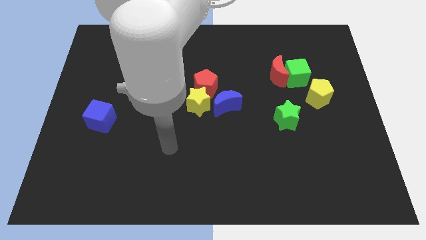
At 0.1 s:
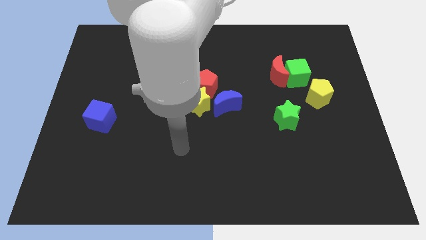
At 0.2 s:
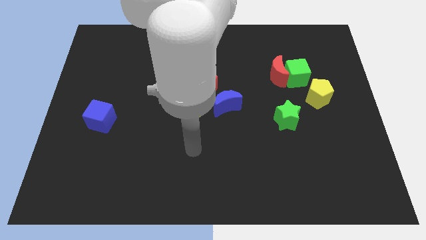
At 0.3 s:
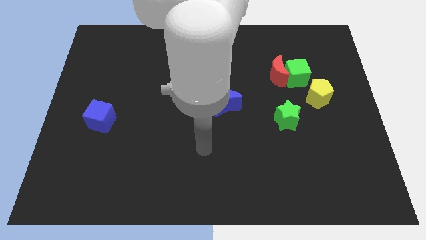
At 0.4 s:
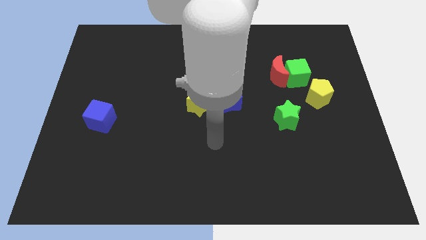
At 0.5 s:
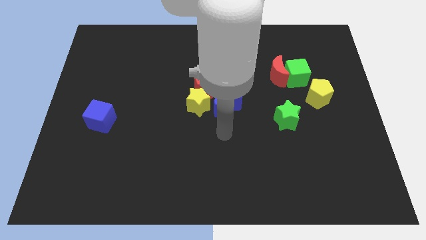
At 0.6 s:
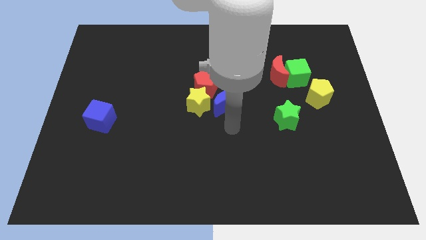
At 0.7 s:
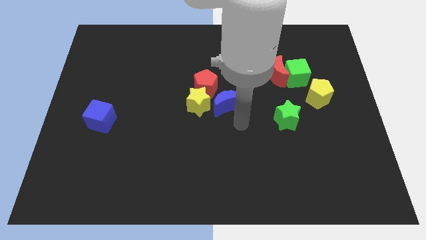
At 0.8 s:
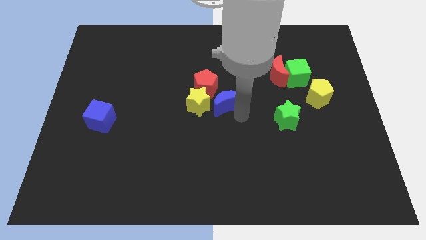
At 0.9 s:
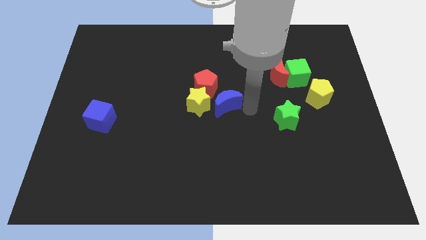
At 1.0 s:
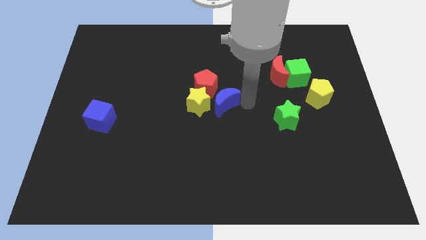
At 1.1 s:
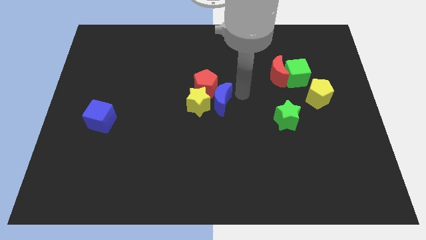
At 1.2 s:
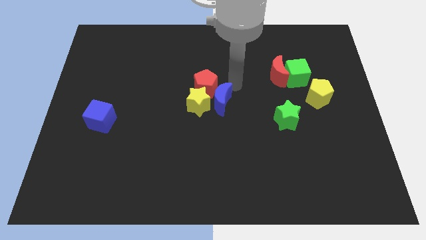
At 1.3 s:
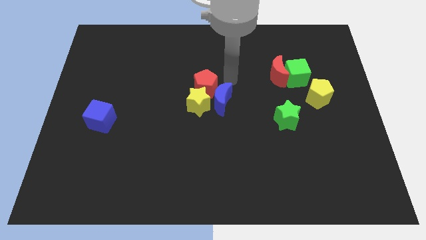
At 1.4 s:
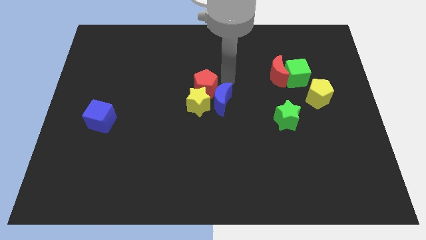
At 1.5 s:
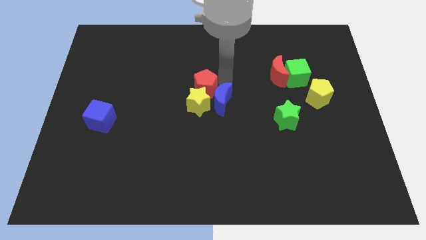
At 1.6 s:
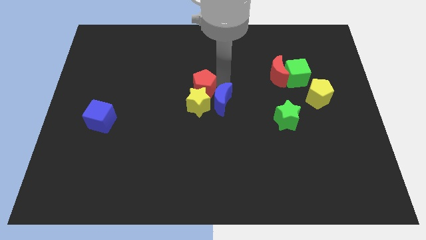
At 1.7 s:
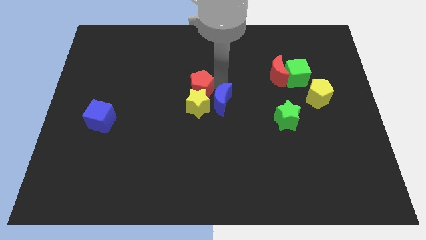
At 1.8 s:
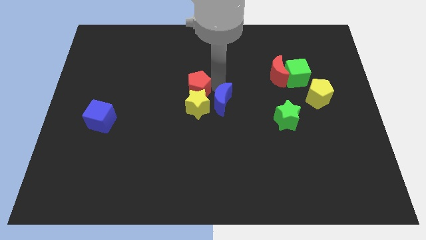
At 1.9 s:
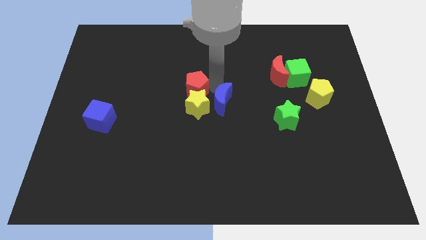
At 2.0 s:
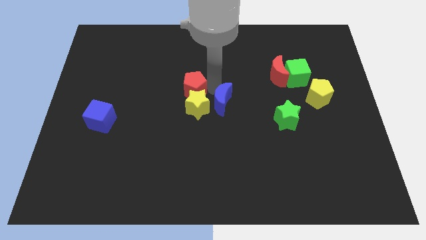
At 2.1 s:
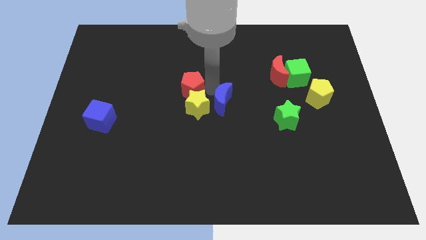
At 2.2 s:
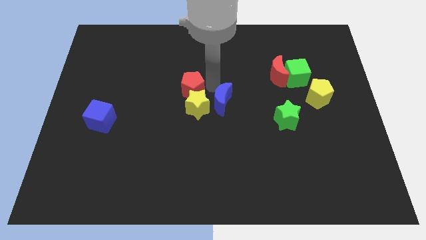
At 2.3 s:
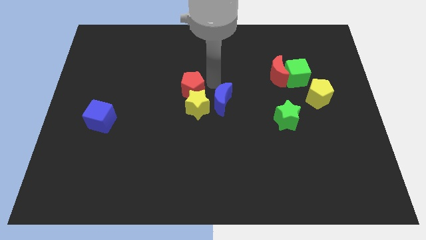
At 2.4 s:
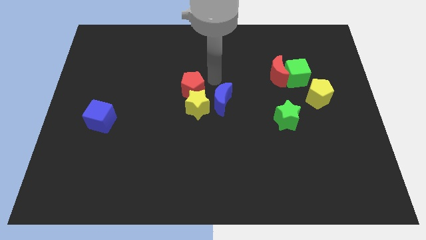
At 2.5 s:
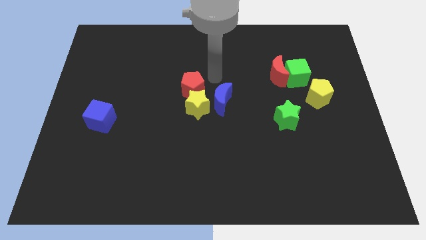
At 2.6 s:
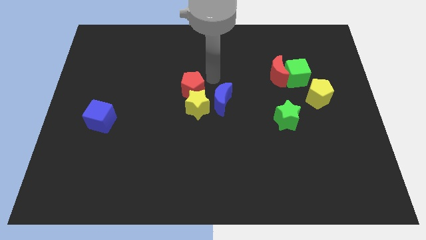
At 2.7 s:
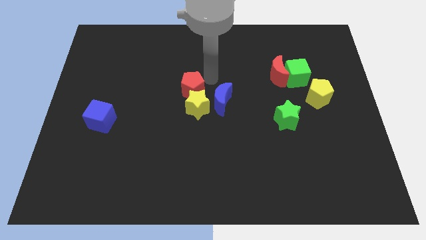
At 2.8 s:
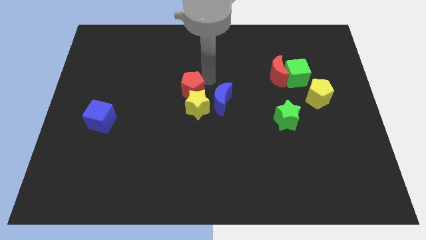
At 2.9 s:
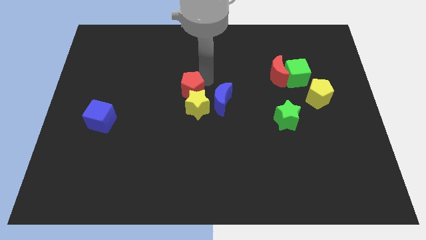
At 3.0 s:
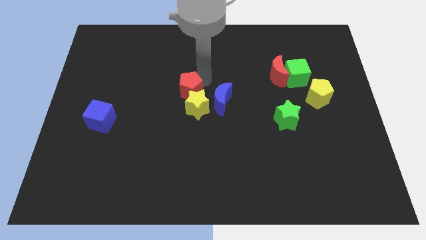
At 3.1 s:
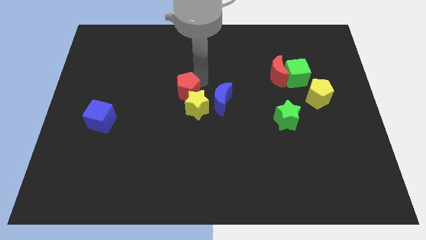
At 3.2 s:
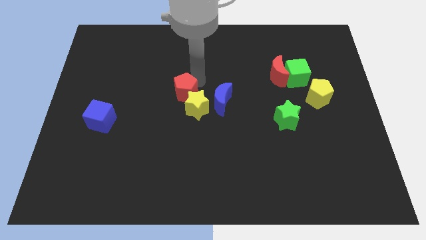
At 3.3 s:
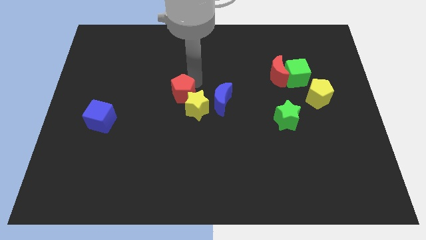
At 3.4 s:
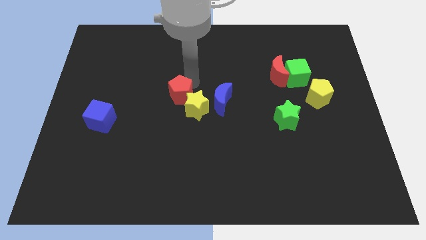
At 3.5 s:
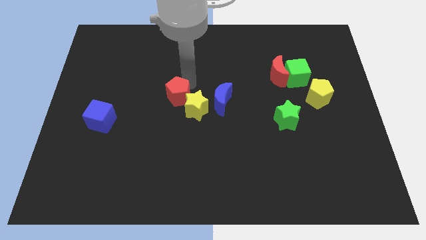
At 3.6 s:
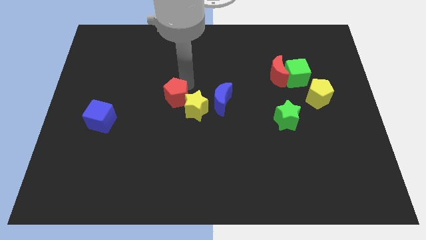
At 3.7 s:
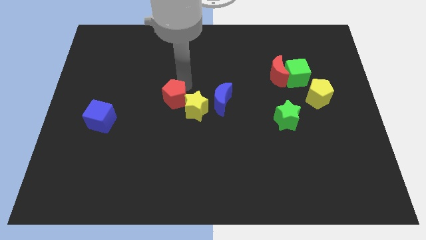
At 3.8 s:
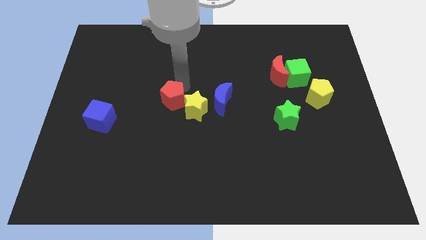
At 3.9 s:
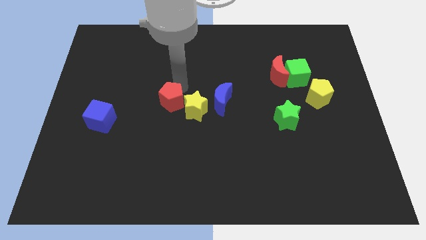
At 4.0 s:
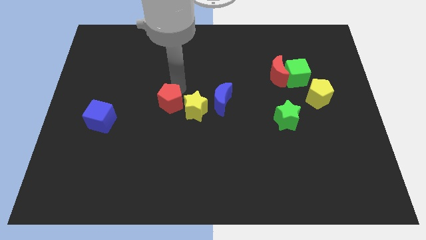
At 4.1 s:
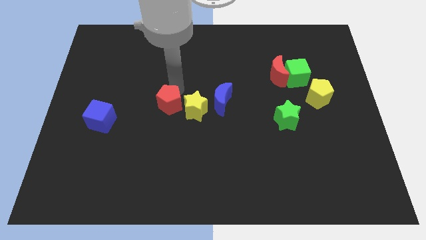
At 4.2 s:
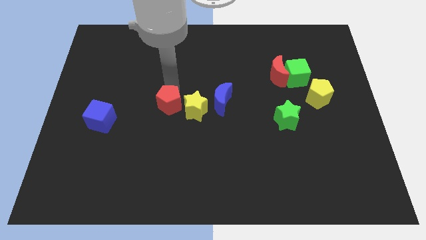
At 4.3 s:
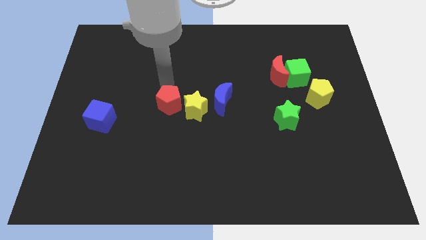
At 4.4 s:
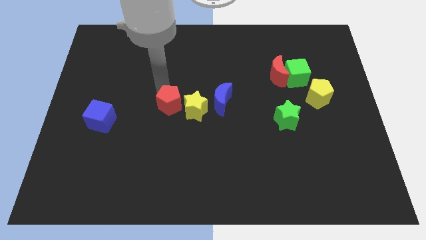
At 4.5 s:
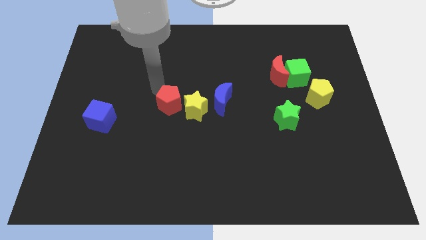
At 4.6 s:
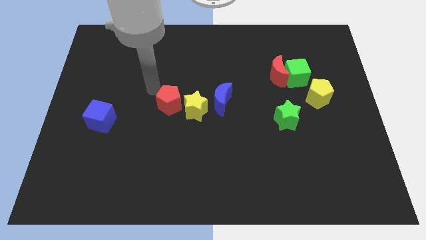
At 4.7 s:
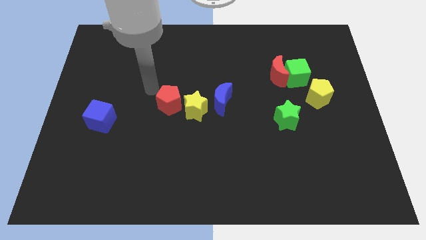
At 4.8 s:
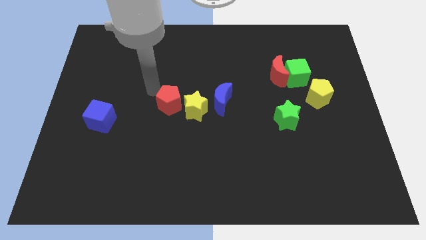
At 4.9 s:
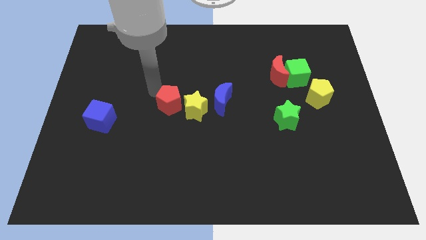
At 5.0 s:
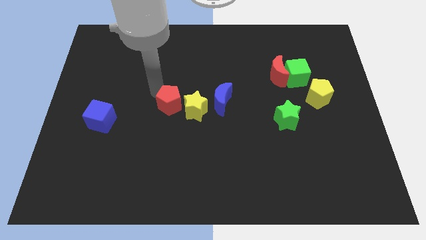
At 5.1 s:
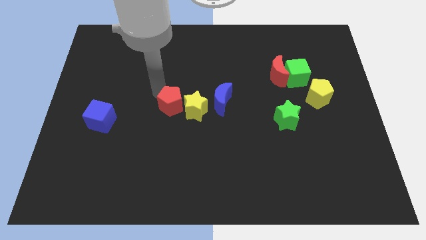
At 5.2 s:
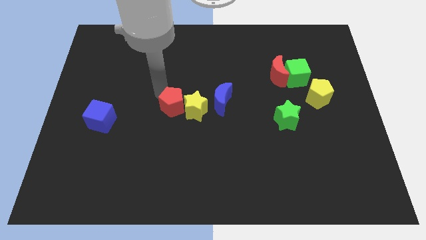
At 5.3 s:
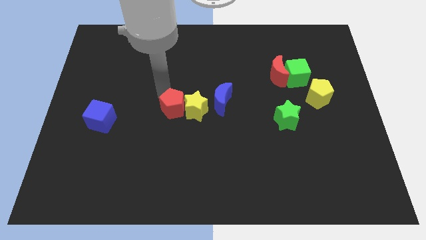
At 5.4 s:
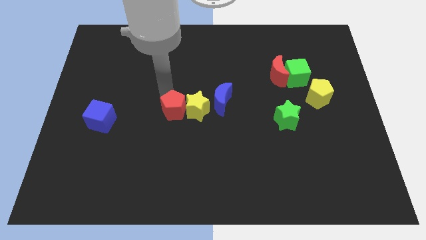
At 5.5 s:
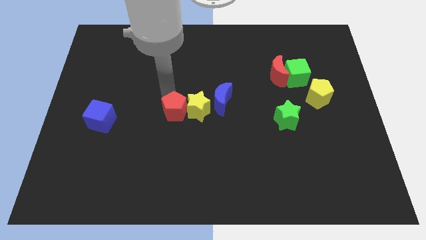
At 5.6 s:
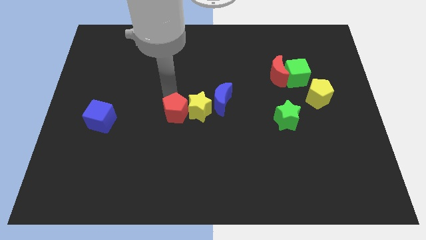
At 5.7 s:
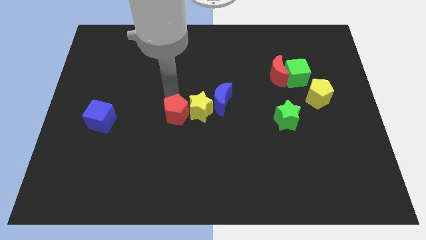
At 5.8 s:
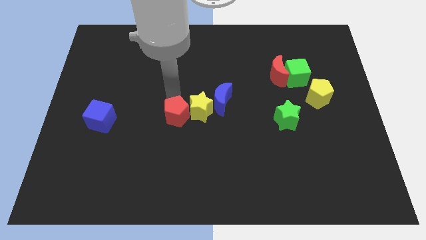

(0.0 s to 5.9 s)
slightly push the red pentagon downwards

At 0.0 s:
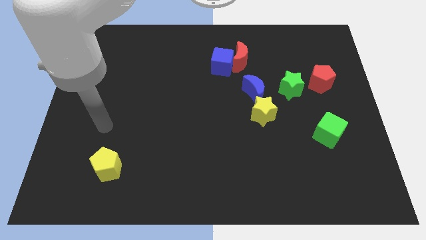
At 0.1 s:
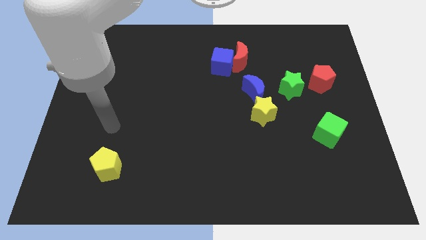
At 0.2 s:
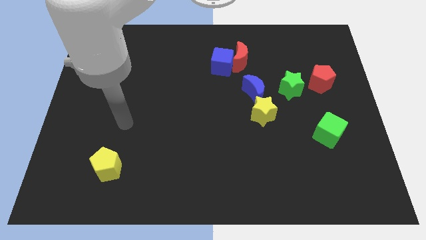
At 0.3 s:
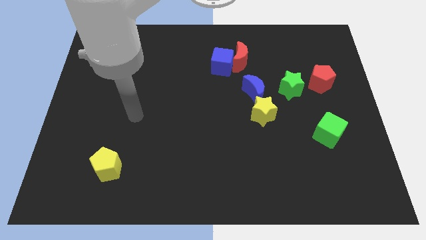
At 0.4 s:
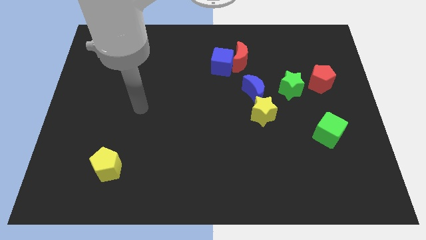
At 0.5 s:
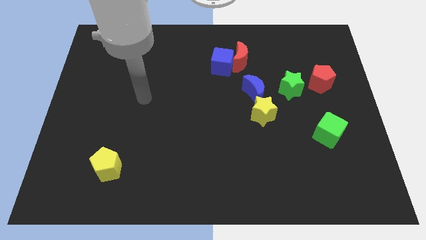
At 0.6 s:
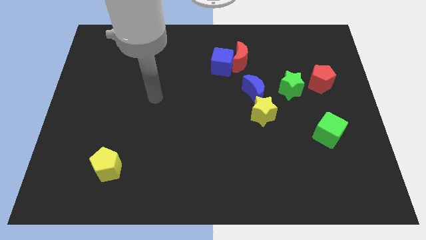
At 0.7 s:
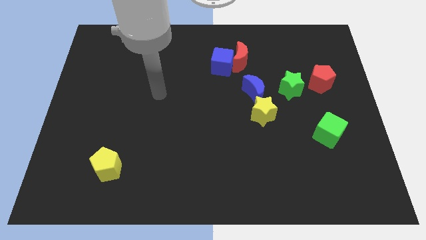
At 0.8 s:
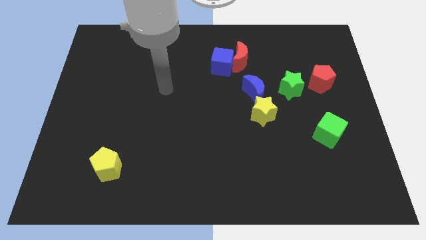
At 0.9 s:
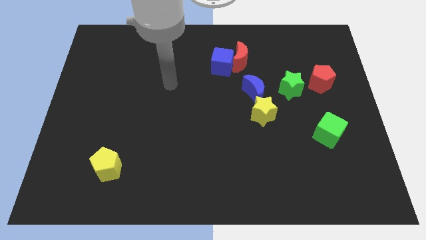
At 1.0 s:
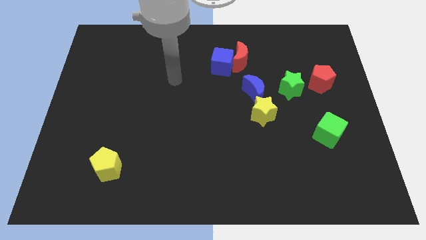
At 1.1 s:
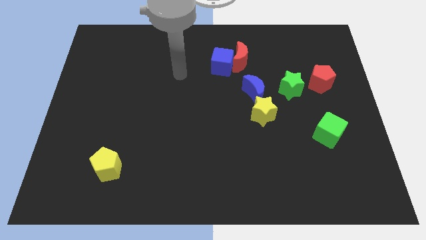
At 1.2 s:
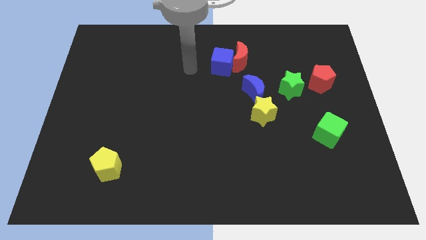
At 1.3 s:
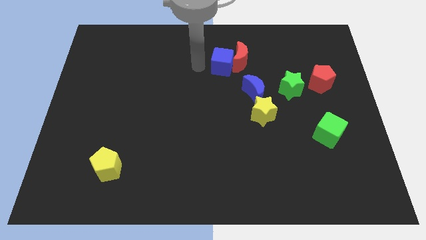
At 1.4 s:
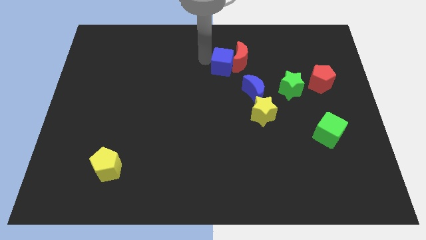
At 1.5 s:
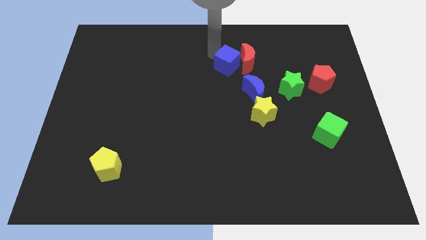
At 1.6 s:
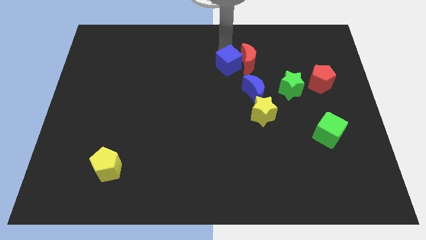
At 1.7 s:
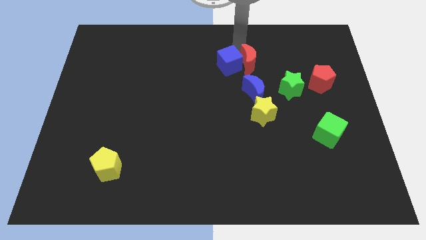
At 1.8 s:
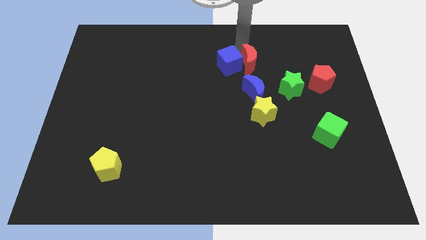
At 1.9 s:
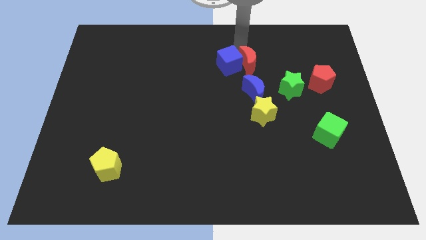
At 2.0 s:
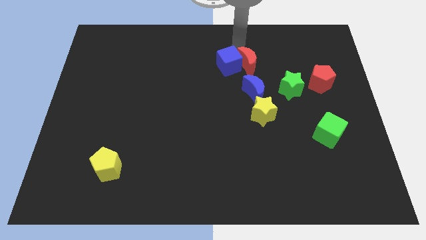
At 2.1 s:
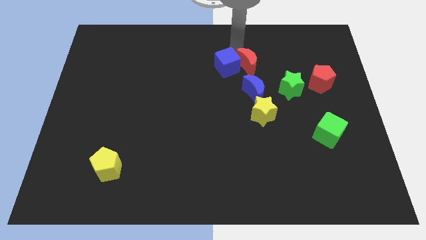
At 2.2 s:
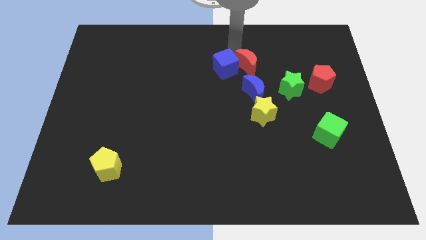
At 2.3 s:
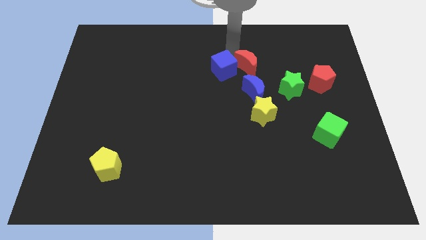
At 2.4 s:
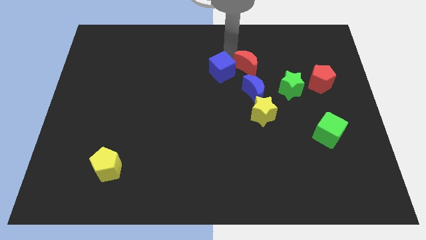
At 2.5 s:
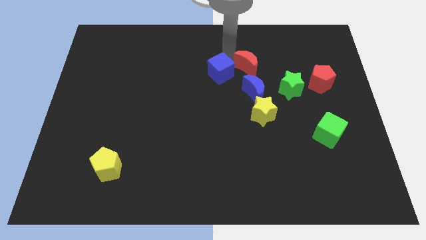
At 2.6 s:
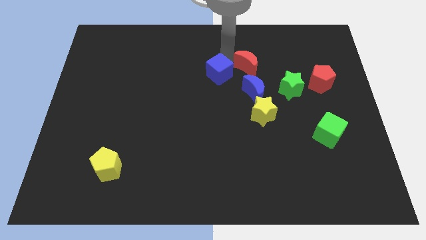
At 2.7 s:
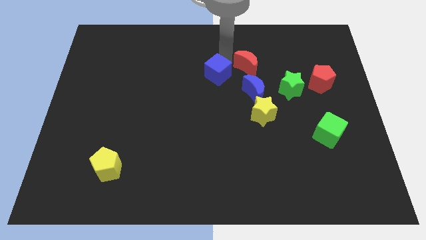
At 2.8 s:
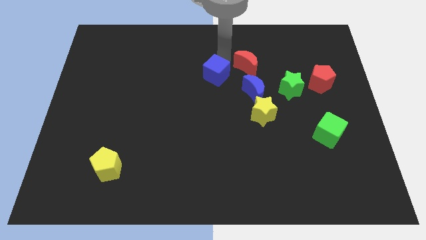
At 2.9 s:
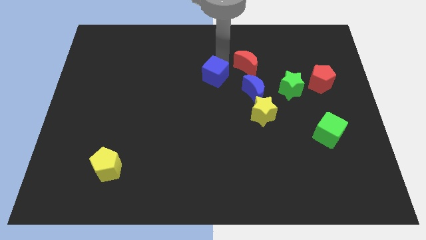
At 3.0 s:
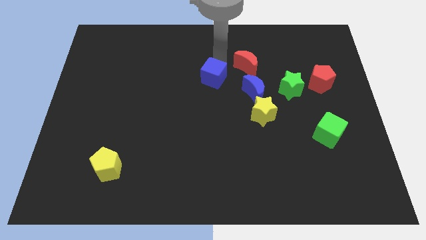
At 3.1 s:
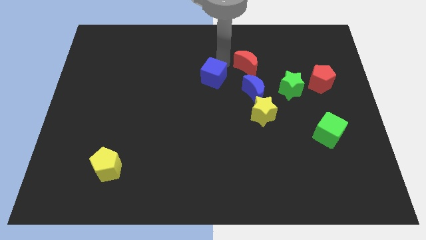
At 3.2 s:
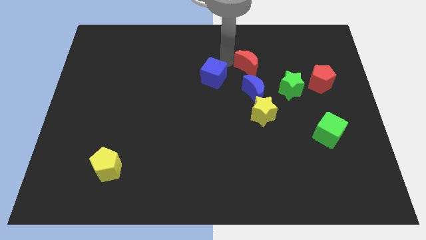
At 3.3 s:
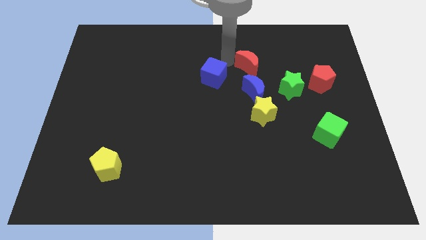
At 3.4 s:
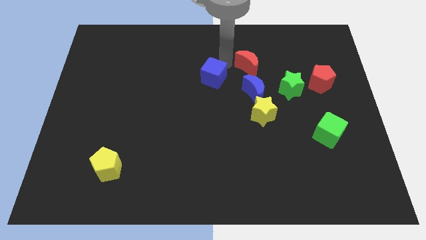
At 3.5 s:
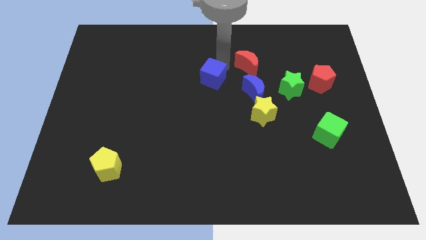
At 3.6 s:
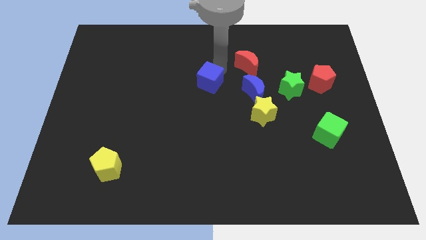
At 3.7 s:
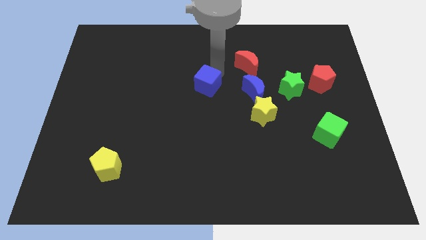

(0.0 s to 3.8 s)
slide the blue cube down and left a little
